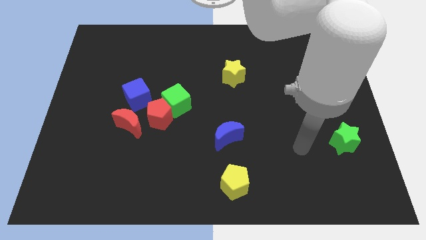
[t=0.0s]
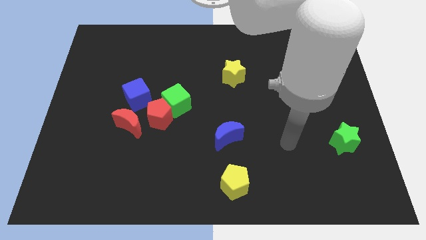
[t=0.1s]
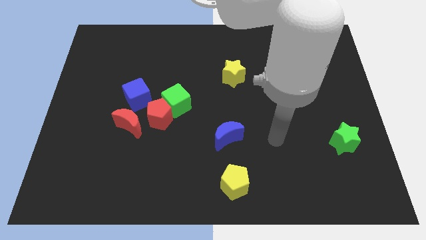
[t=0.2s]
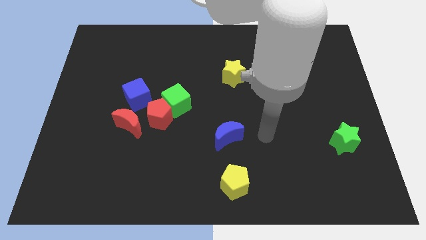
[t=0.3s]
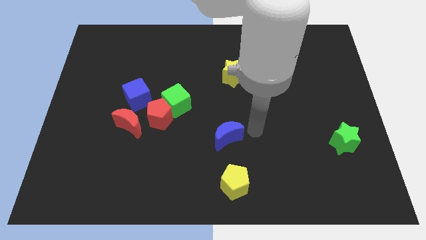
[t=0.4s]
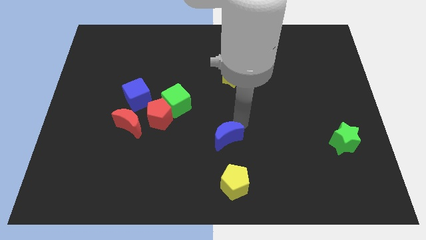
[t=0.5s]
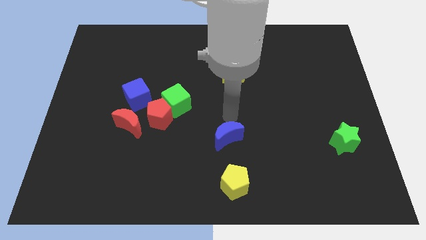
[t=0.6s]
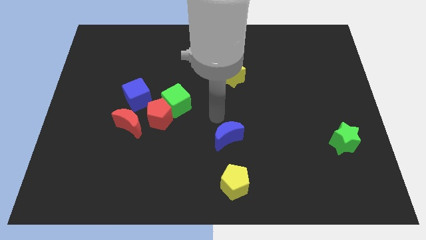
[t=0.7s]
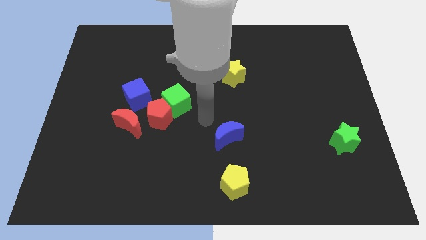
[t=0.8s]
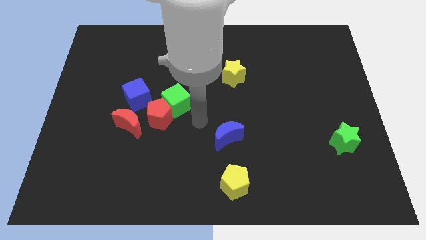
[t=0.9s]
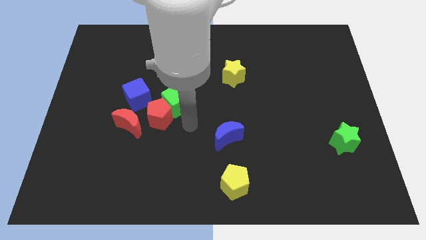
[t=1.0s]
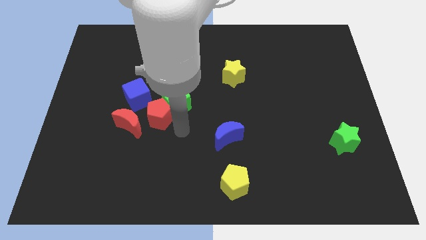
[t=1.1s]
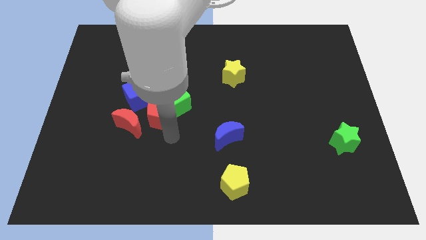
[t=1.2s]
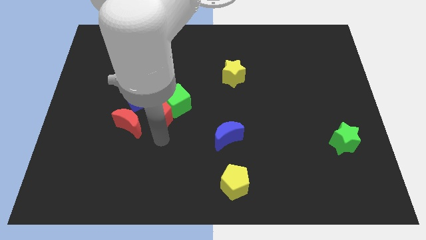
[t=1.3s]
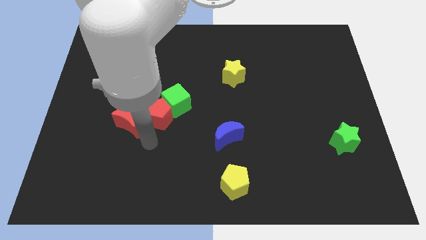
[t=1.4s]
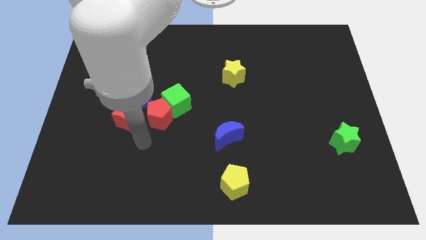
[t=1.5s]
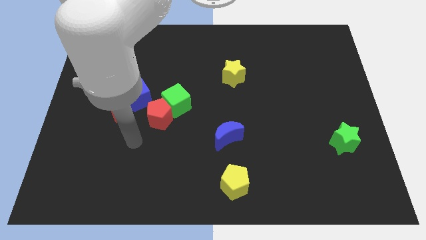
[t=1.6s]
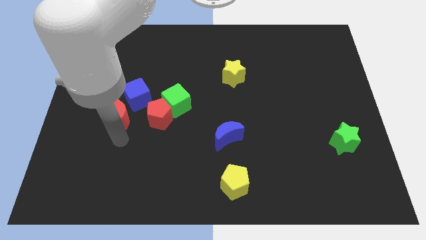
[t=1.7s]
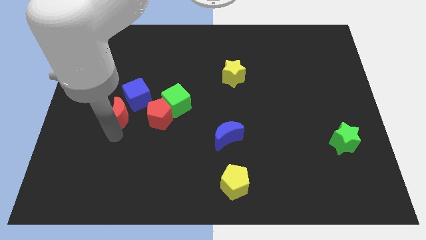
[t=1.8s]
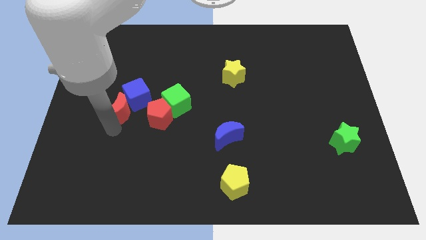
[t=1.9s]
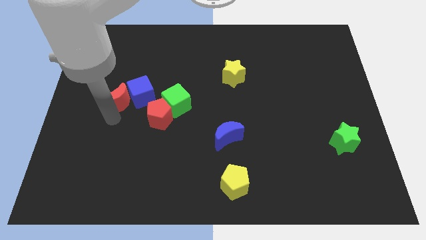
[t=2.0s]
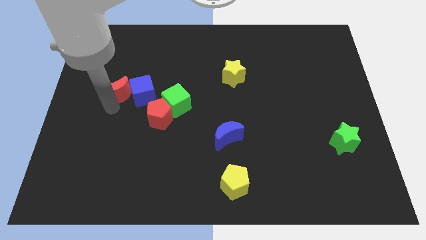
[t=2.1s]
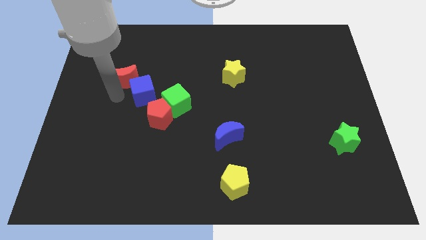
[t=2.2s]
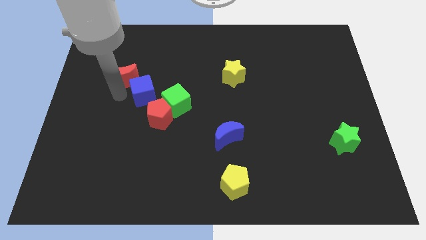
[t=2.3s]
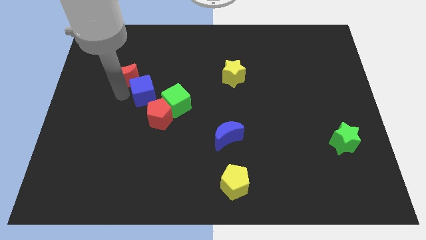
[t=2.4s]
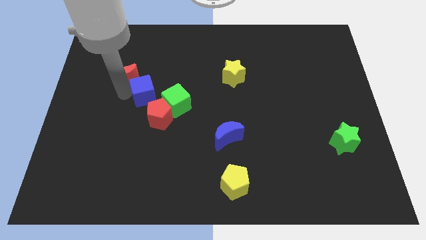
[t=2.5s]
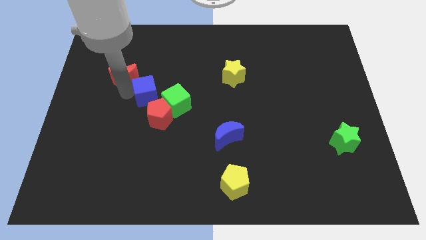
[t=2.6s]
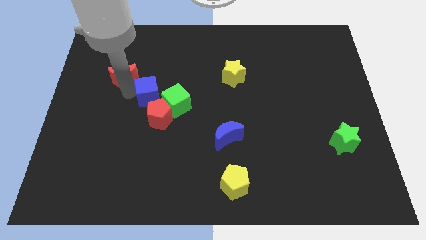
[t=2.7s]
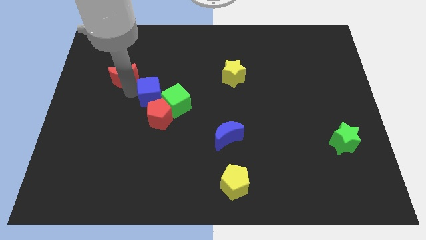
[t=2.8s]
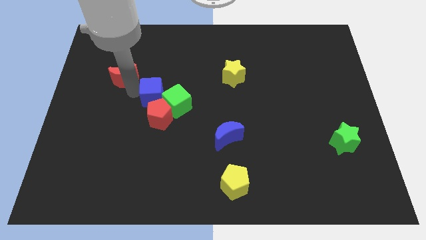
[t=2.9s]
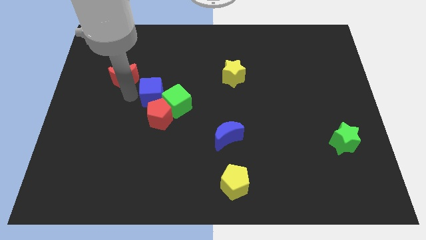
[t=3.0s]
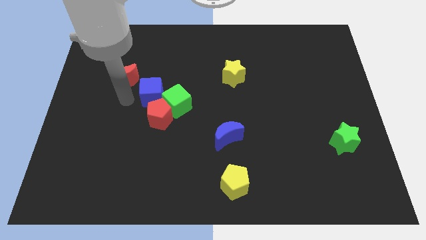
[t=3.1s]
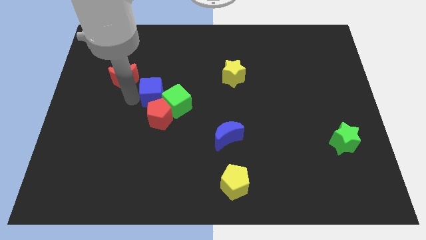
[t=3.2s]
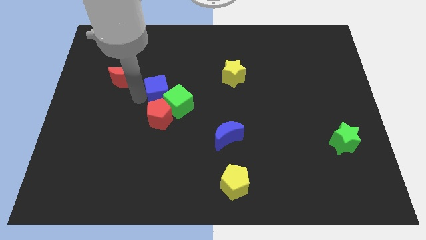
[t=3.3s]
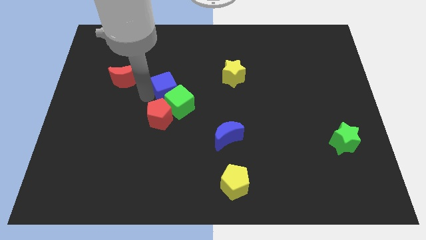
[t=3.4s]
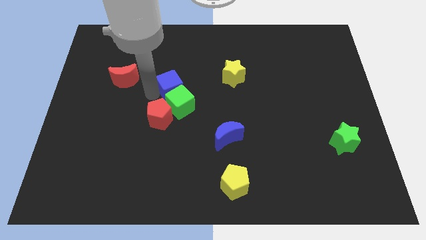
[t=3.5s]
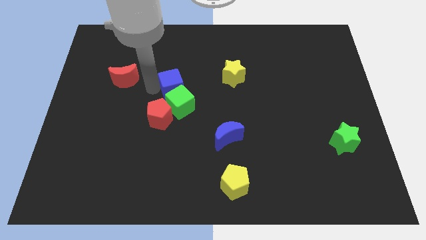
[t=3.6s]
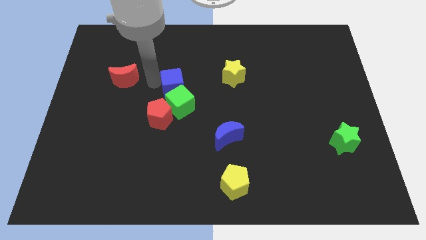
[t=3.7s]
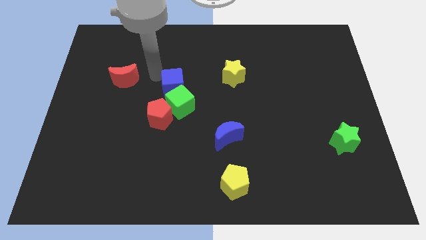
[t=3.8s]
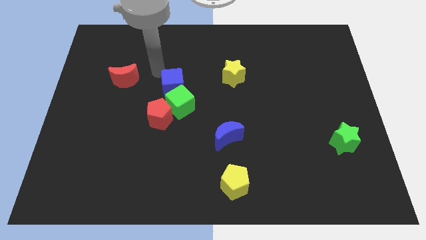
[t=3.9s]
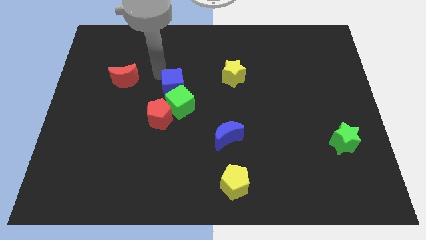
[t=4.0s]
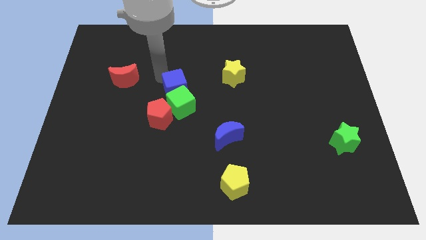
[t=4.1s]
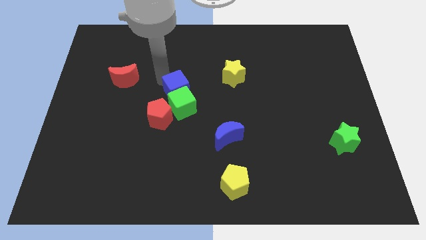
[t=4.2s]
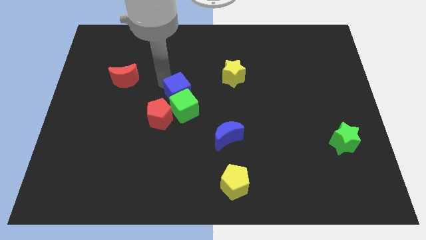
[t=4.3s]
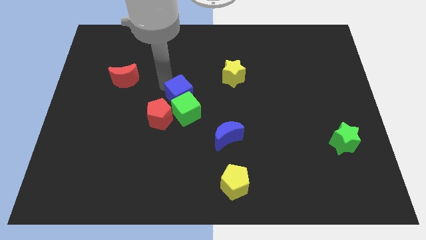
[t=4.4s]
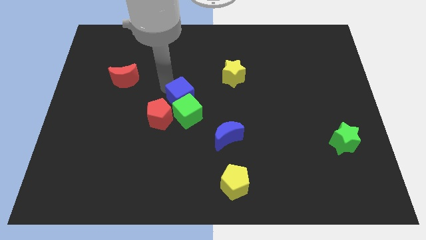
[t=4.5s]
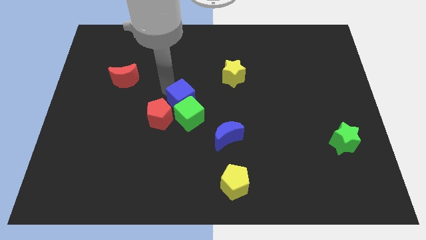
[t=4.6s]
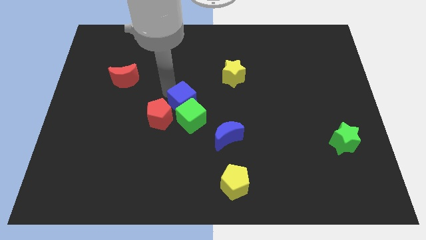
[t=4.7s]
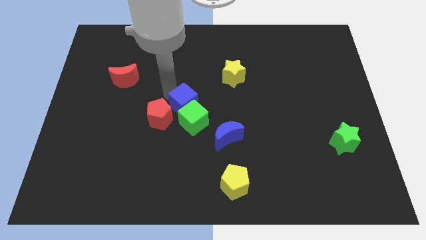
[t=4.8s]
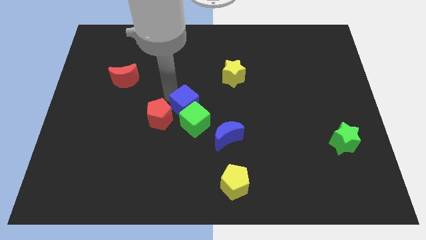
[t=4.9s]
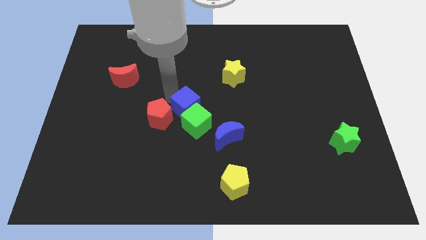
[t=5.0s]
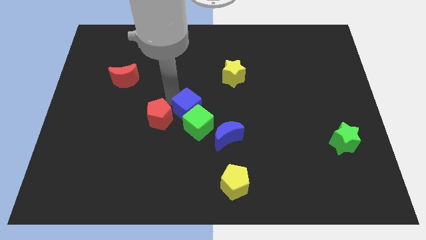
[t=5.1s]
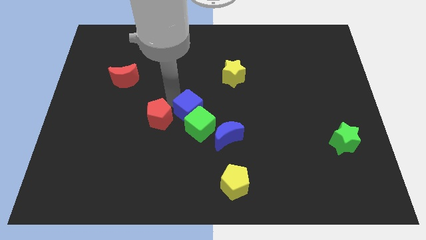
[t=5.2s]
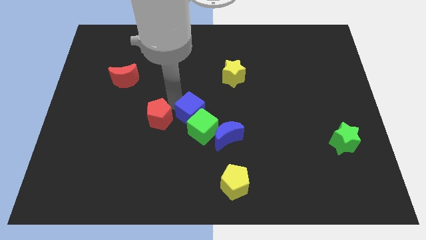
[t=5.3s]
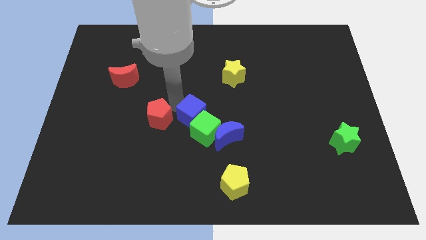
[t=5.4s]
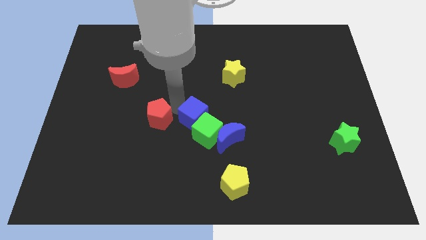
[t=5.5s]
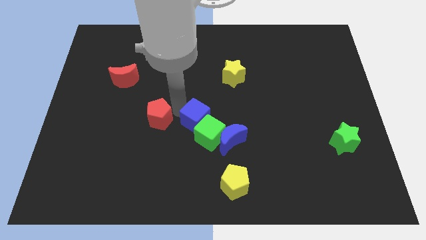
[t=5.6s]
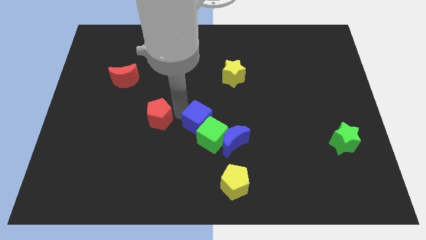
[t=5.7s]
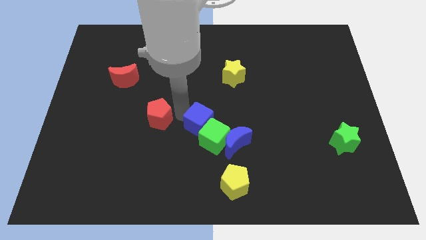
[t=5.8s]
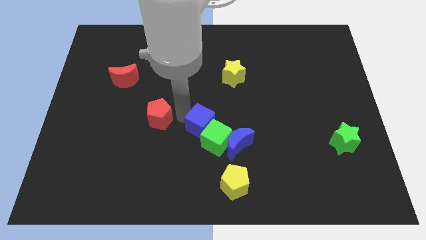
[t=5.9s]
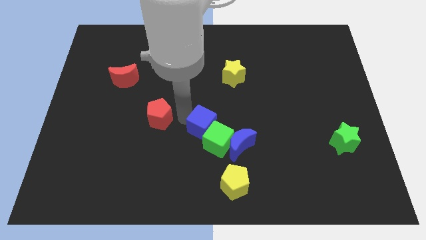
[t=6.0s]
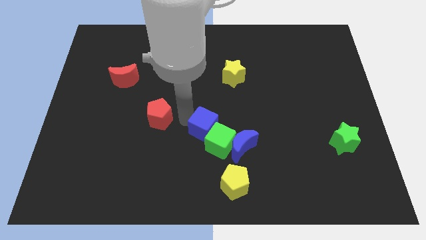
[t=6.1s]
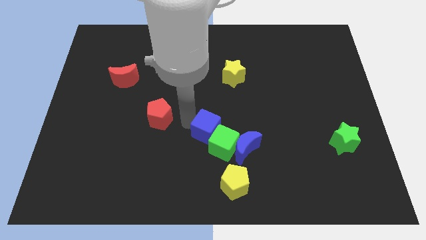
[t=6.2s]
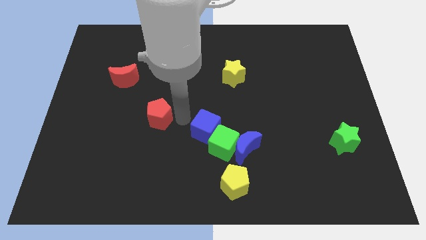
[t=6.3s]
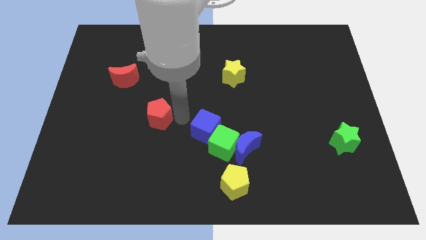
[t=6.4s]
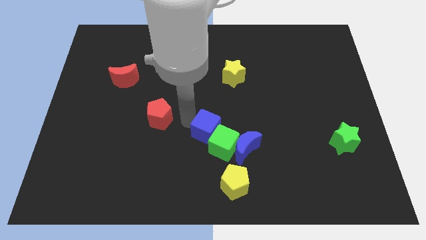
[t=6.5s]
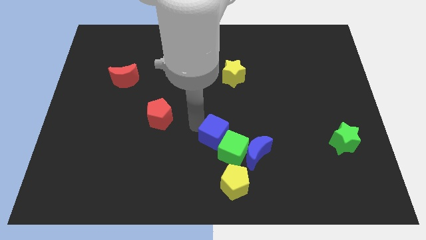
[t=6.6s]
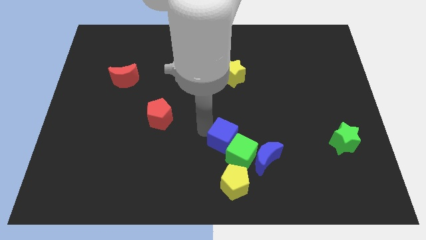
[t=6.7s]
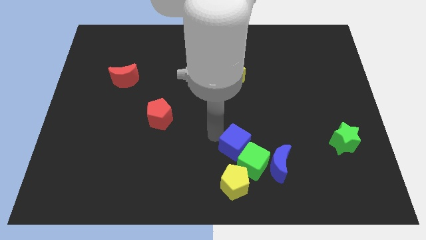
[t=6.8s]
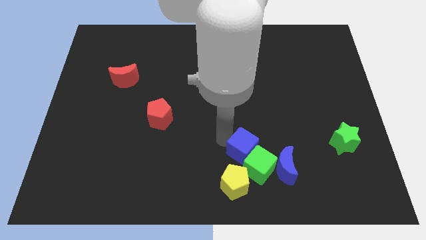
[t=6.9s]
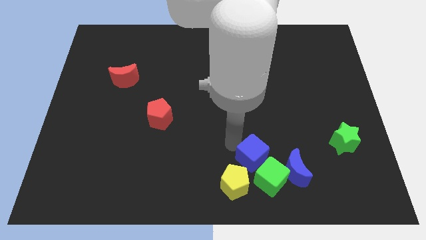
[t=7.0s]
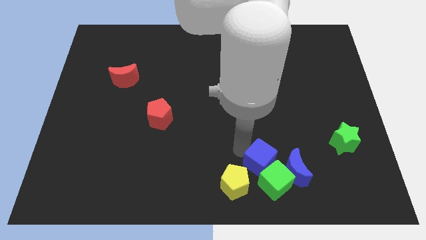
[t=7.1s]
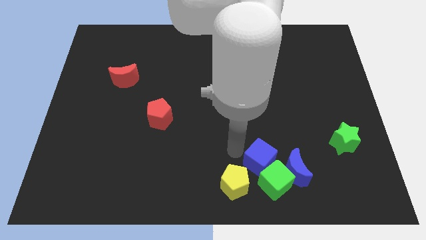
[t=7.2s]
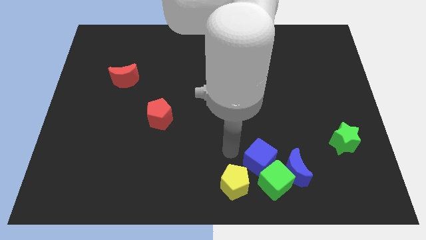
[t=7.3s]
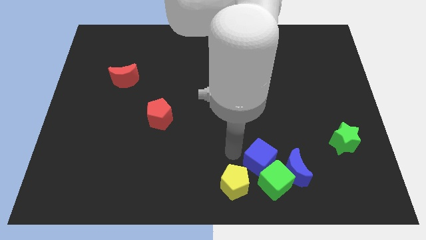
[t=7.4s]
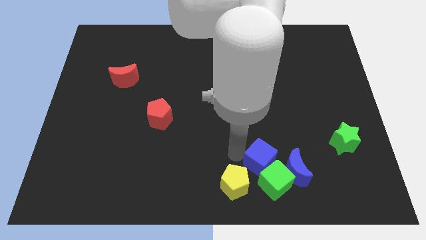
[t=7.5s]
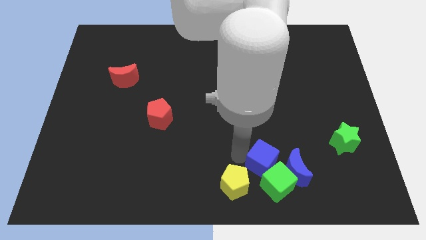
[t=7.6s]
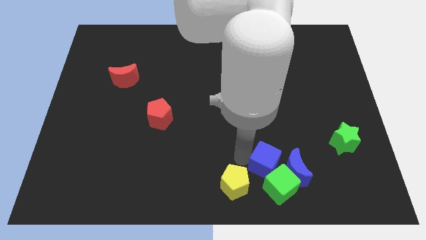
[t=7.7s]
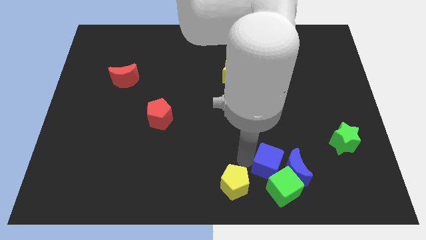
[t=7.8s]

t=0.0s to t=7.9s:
slide the blue cube to the blue moon

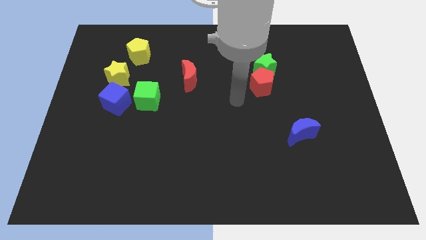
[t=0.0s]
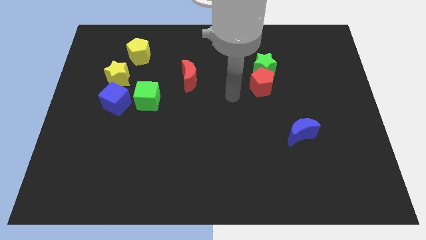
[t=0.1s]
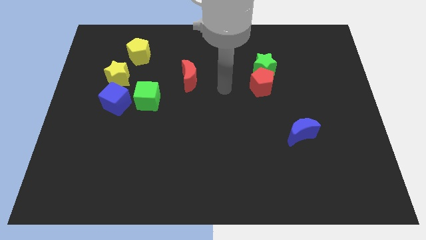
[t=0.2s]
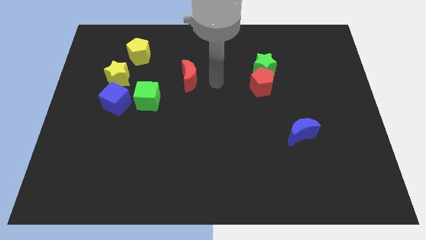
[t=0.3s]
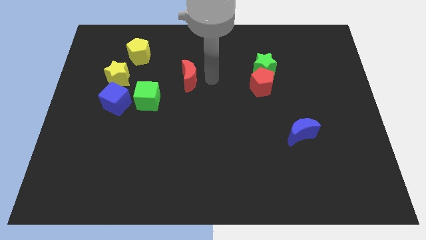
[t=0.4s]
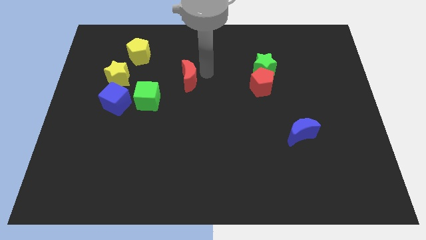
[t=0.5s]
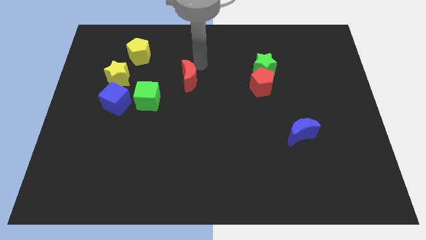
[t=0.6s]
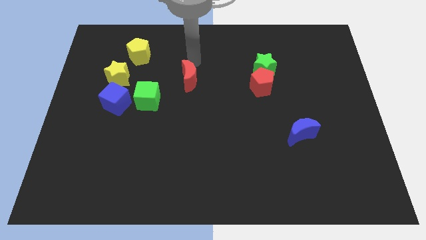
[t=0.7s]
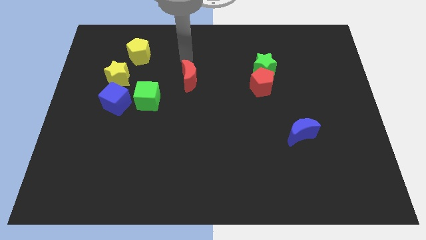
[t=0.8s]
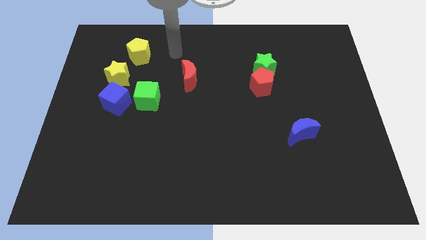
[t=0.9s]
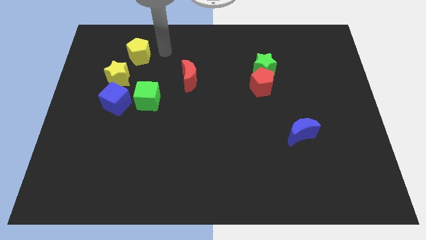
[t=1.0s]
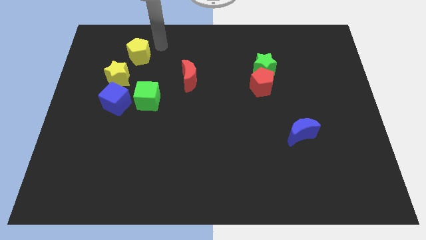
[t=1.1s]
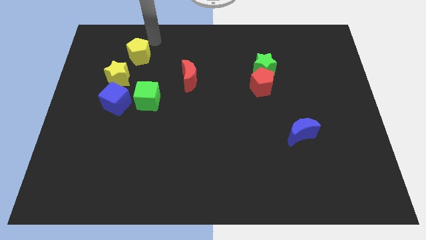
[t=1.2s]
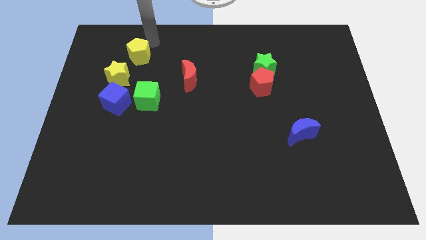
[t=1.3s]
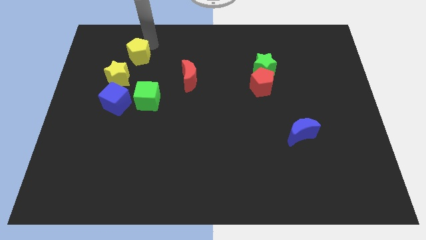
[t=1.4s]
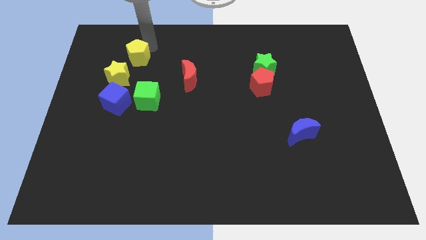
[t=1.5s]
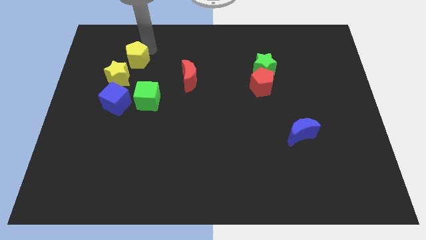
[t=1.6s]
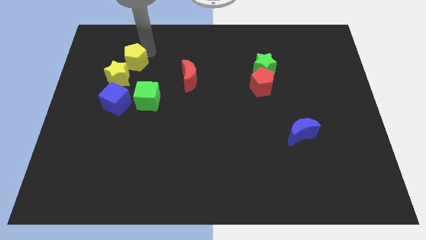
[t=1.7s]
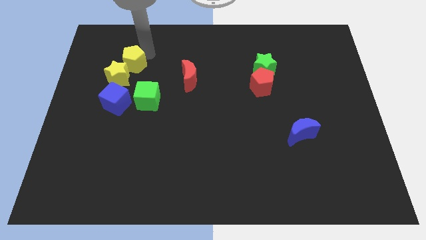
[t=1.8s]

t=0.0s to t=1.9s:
move the yellow pentagon to the yellow star
